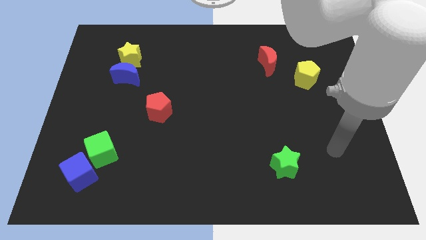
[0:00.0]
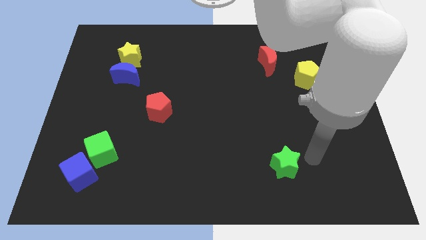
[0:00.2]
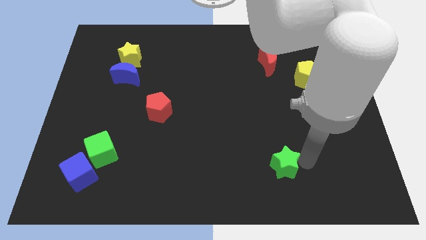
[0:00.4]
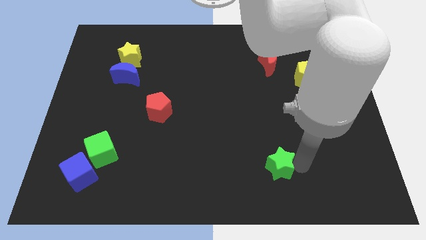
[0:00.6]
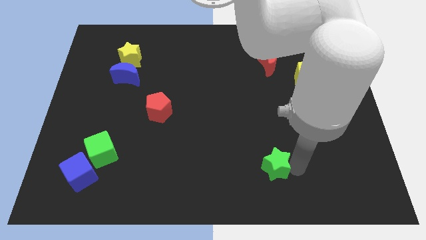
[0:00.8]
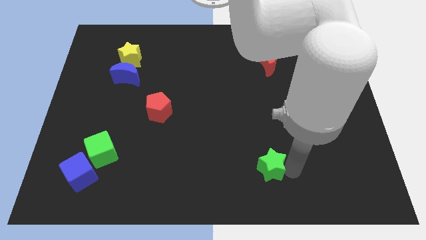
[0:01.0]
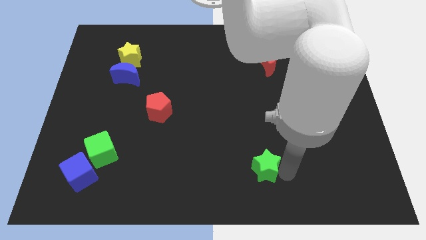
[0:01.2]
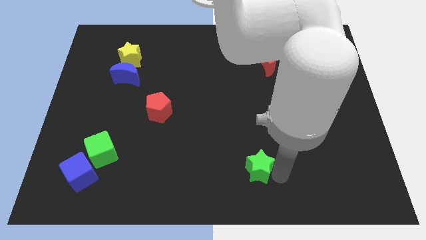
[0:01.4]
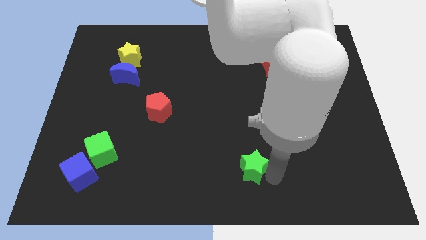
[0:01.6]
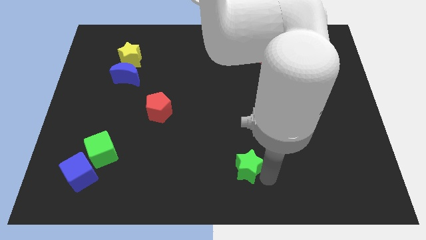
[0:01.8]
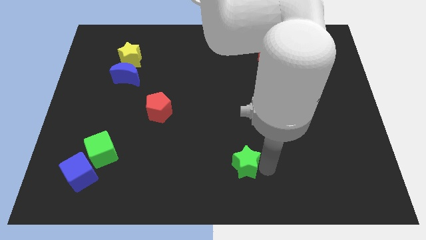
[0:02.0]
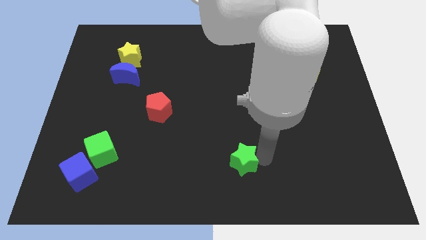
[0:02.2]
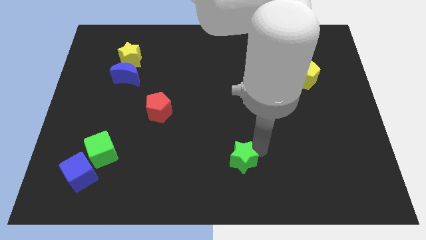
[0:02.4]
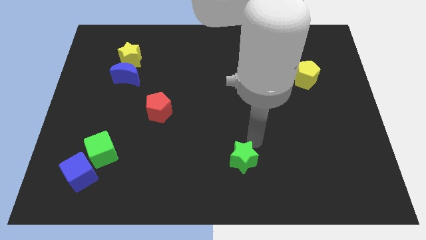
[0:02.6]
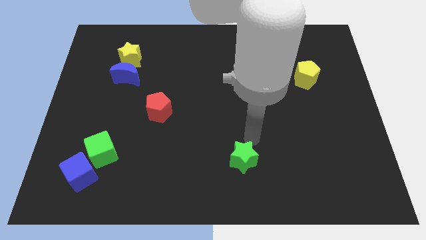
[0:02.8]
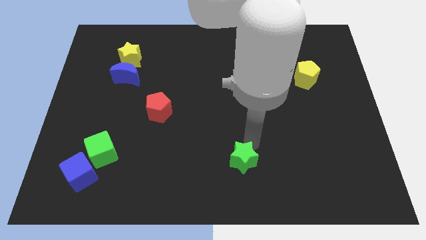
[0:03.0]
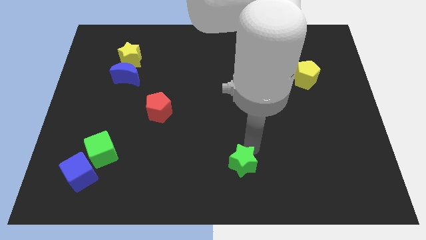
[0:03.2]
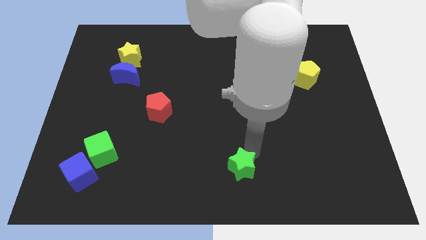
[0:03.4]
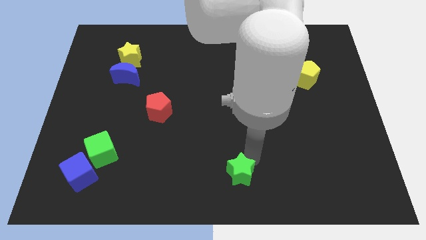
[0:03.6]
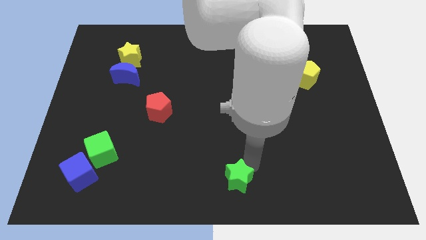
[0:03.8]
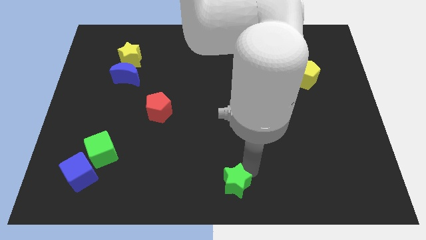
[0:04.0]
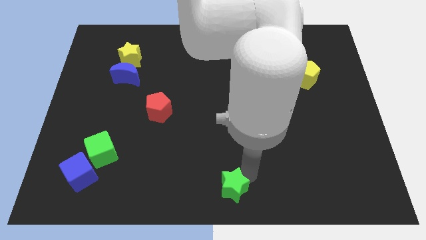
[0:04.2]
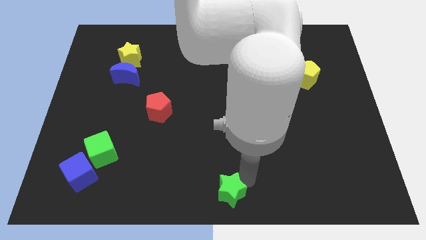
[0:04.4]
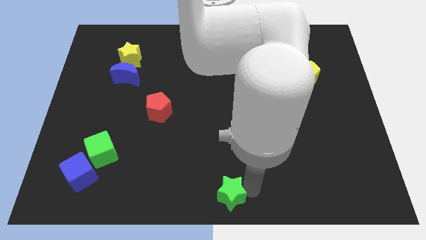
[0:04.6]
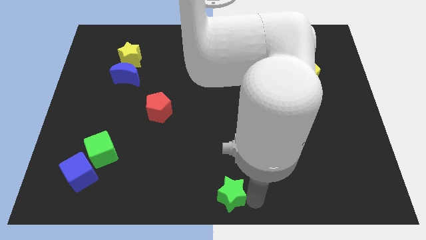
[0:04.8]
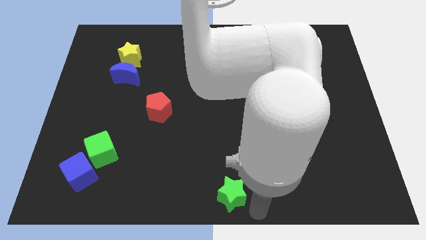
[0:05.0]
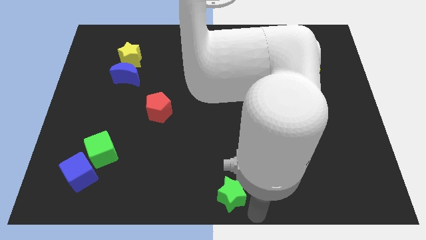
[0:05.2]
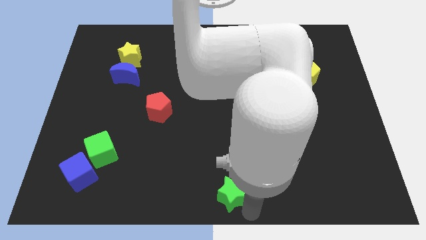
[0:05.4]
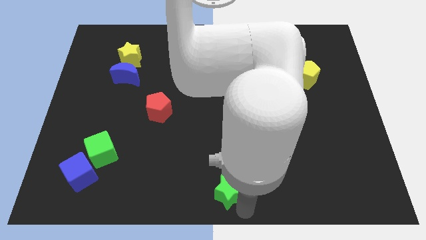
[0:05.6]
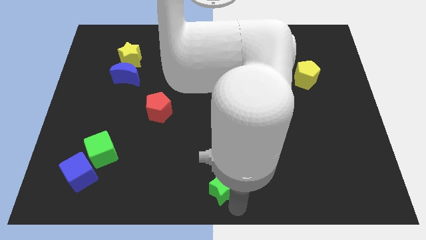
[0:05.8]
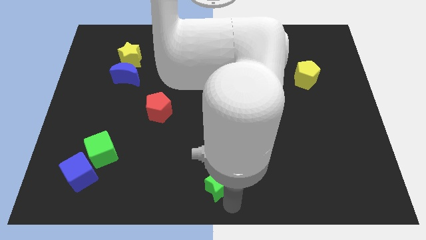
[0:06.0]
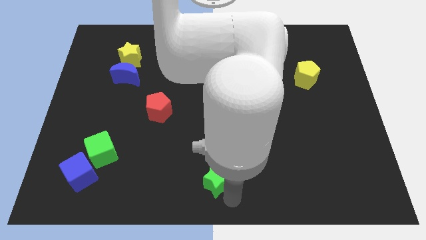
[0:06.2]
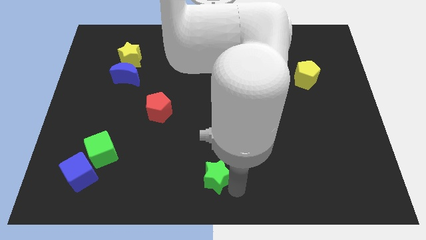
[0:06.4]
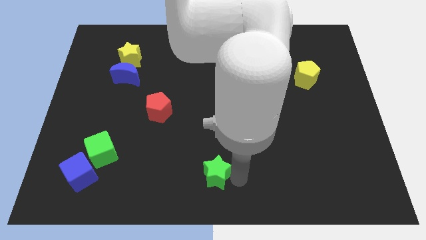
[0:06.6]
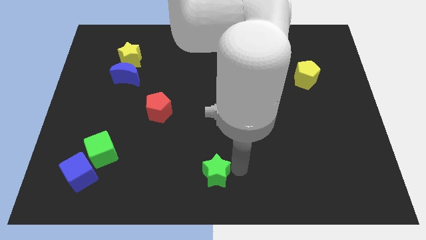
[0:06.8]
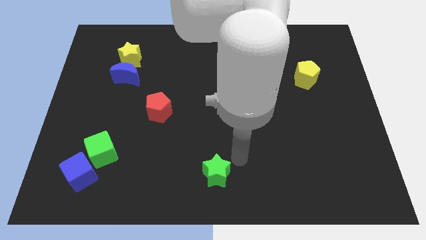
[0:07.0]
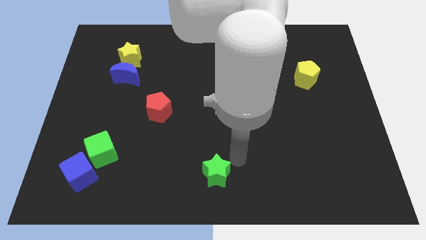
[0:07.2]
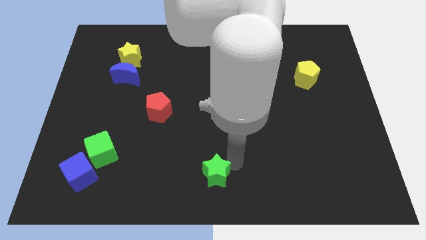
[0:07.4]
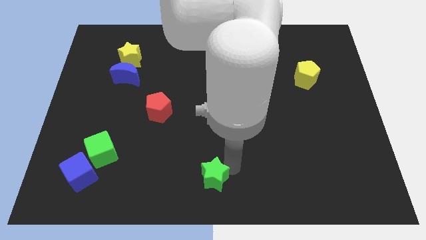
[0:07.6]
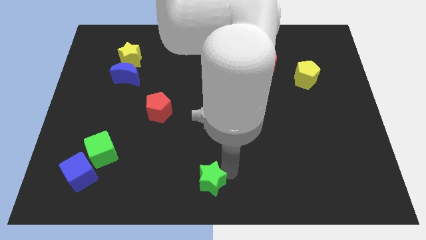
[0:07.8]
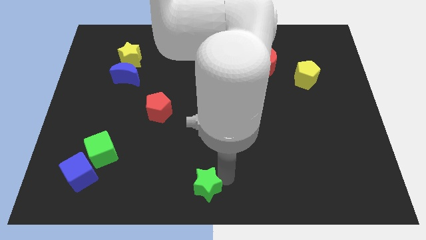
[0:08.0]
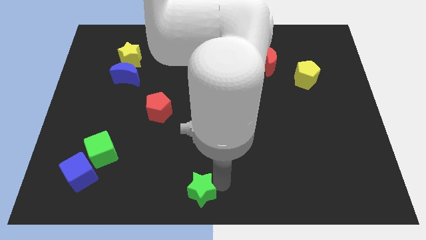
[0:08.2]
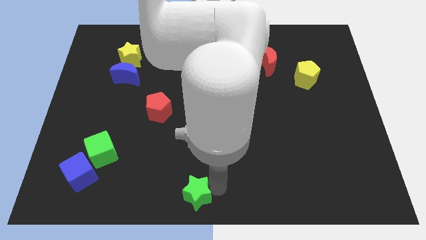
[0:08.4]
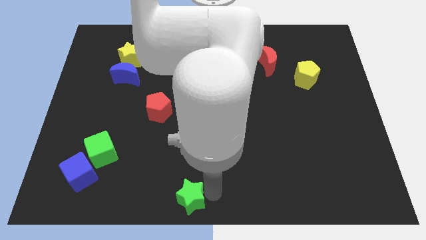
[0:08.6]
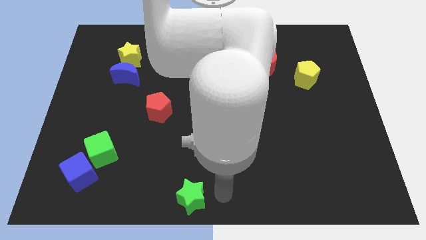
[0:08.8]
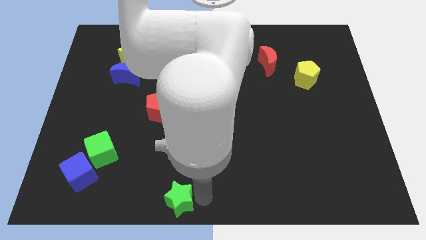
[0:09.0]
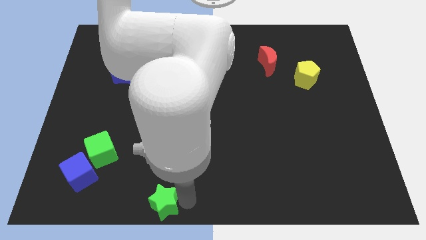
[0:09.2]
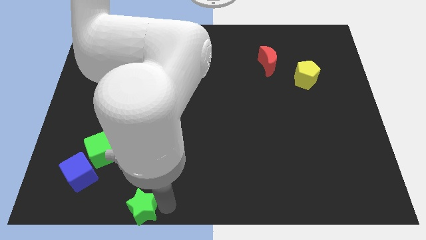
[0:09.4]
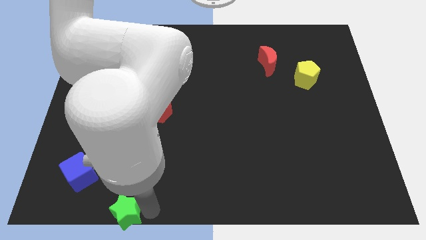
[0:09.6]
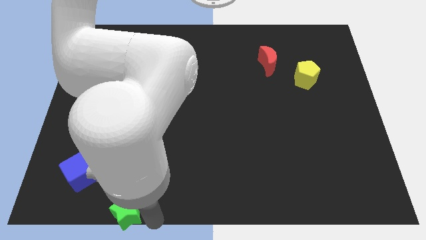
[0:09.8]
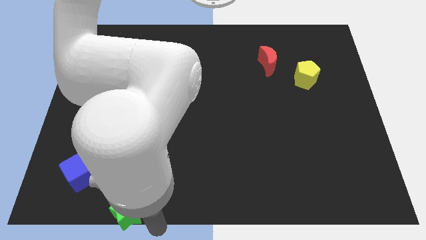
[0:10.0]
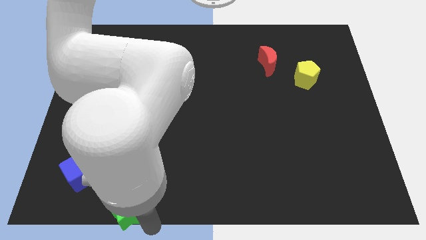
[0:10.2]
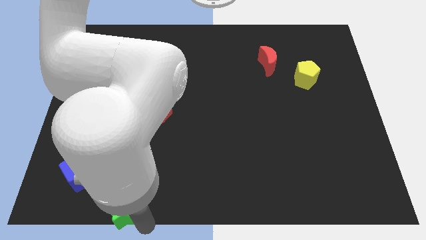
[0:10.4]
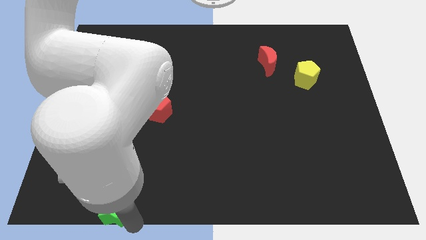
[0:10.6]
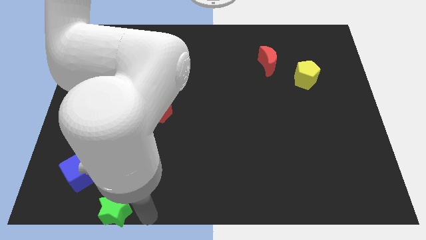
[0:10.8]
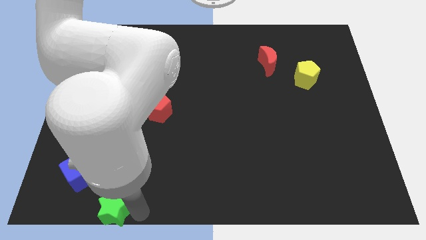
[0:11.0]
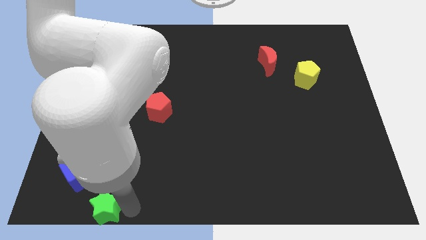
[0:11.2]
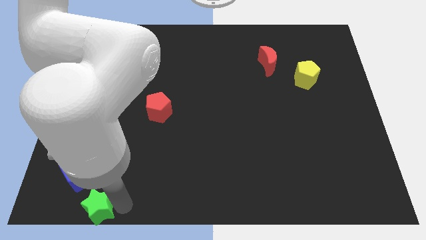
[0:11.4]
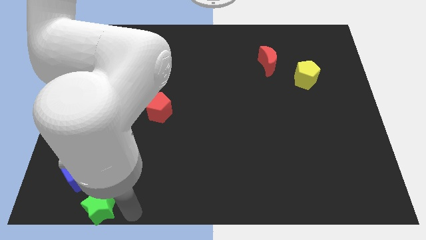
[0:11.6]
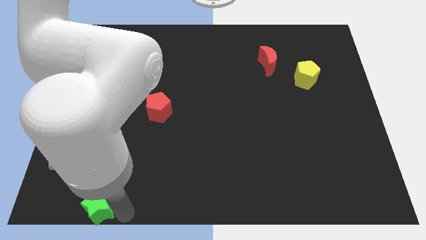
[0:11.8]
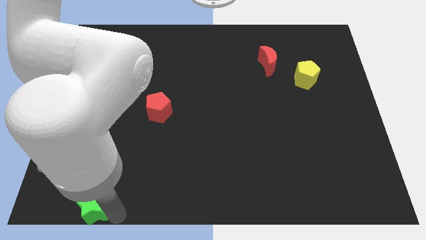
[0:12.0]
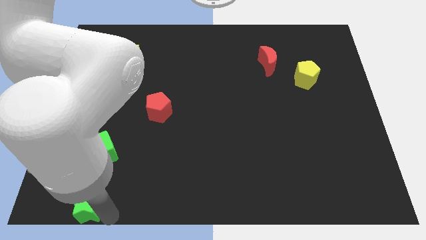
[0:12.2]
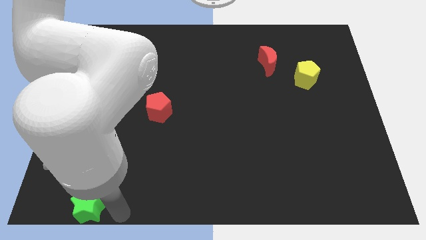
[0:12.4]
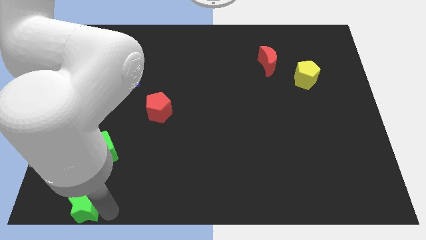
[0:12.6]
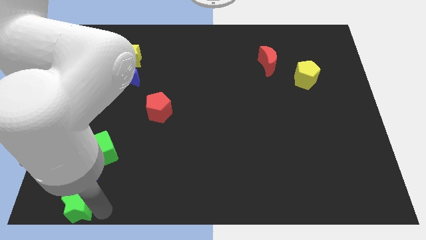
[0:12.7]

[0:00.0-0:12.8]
move the green star to the bottom left
